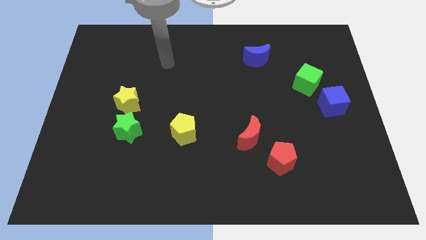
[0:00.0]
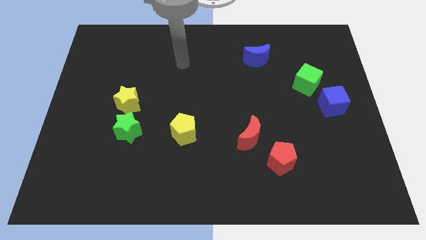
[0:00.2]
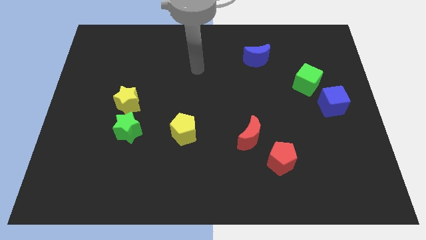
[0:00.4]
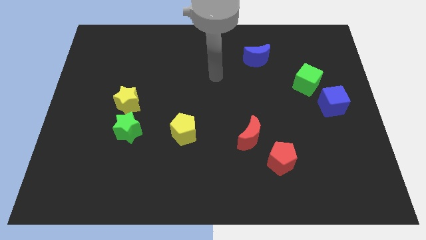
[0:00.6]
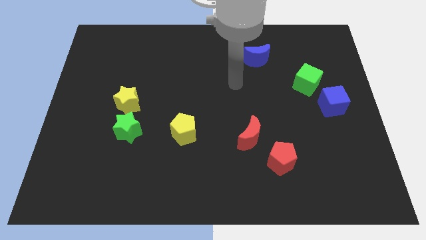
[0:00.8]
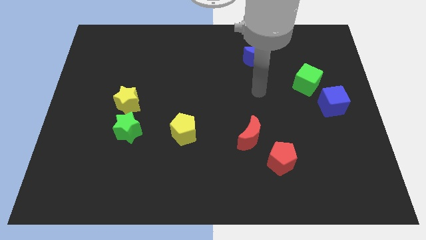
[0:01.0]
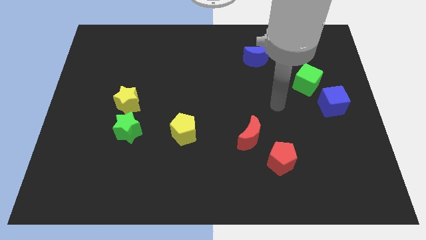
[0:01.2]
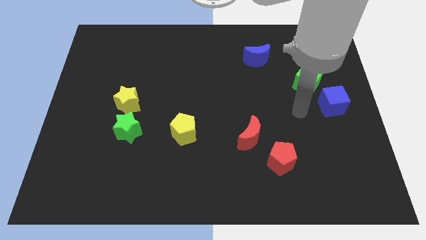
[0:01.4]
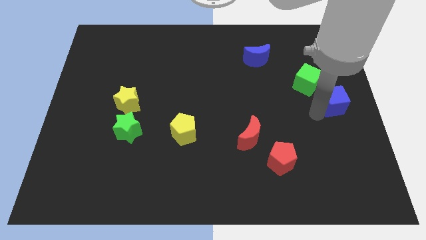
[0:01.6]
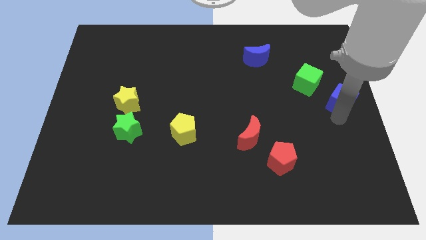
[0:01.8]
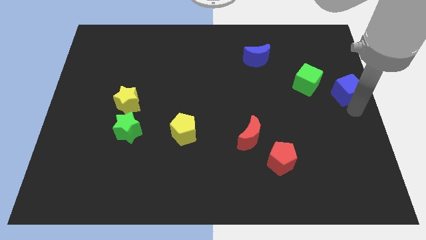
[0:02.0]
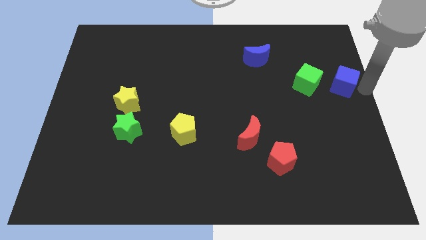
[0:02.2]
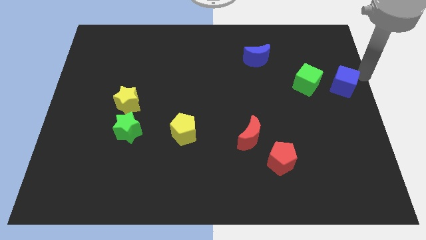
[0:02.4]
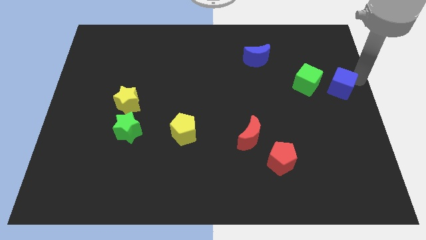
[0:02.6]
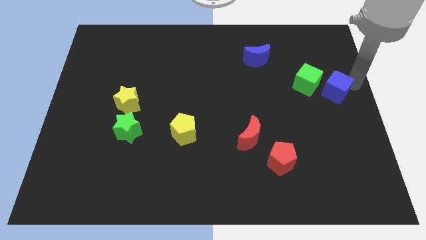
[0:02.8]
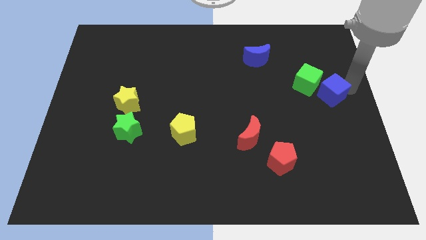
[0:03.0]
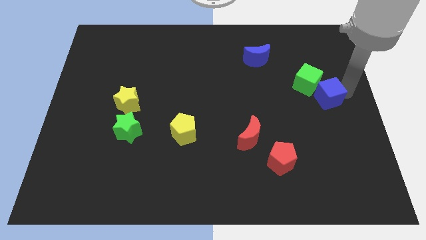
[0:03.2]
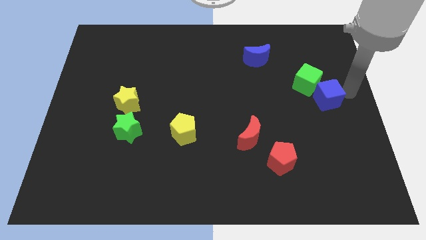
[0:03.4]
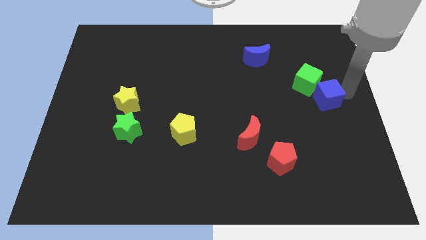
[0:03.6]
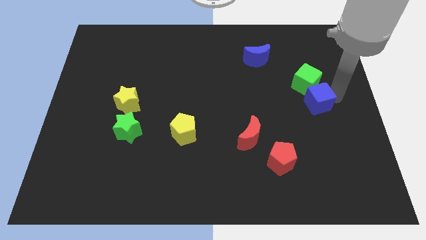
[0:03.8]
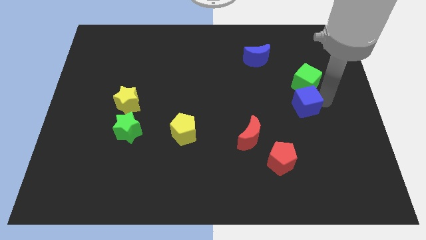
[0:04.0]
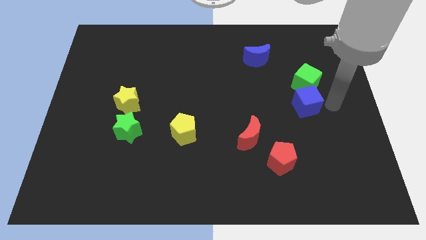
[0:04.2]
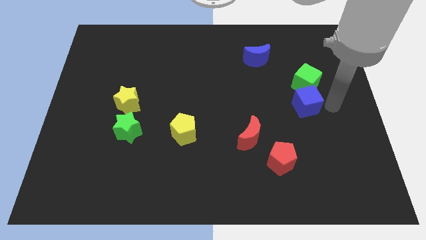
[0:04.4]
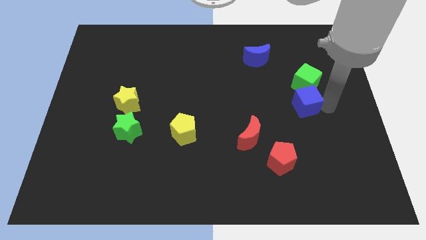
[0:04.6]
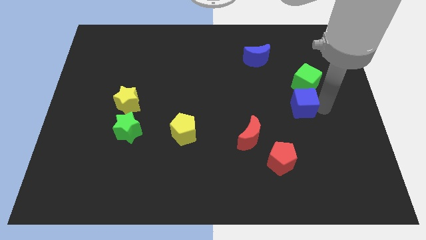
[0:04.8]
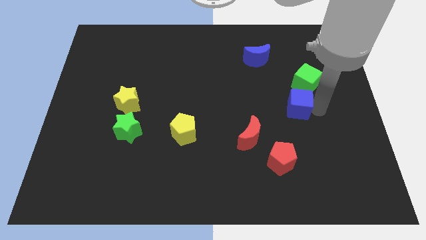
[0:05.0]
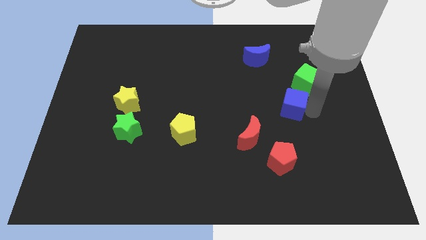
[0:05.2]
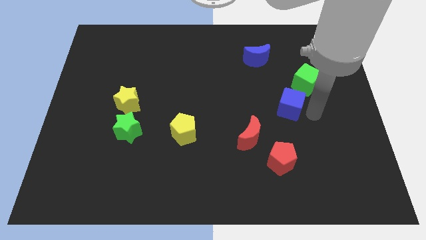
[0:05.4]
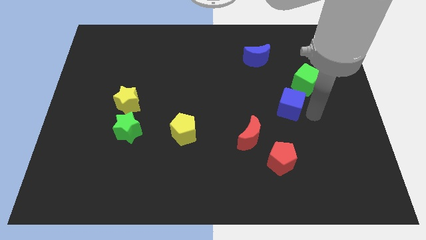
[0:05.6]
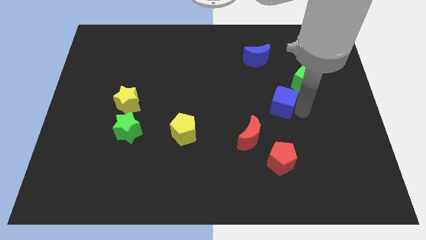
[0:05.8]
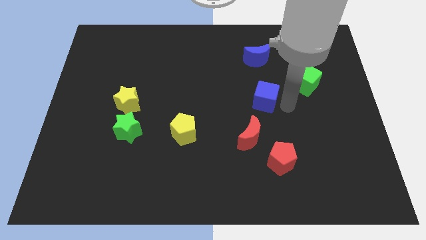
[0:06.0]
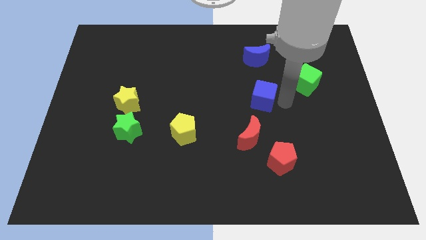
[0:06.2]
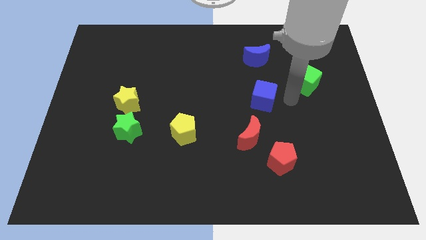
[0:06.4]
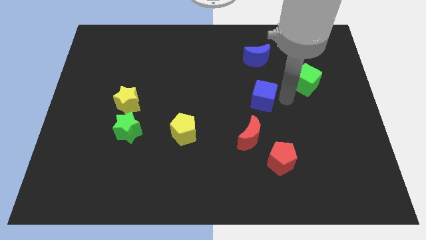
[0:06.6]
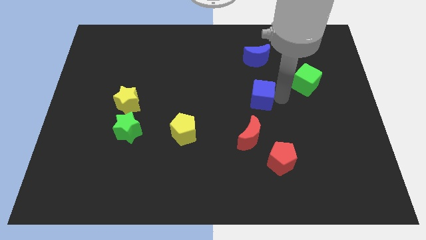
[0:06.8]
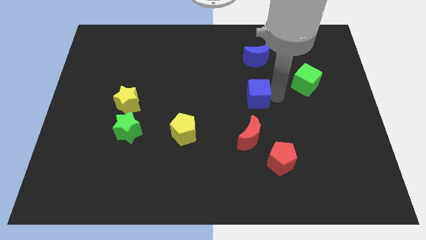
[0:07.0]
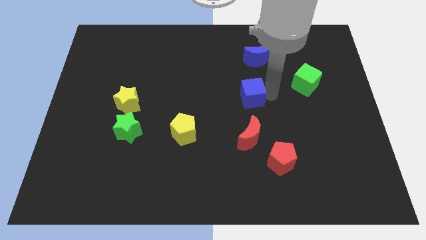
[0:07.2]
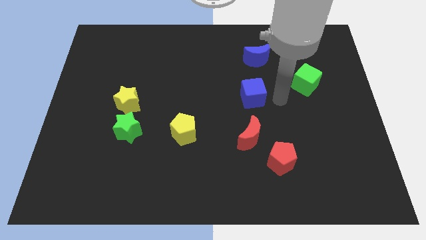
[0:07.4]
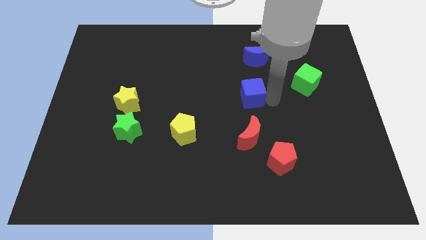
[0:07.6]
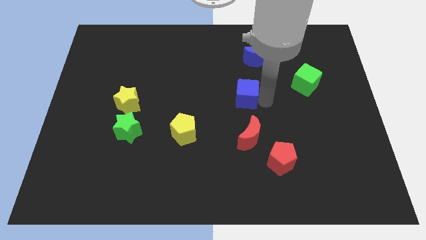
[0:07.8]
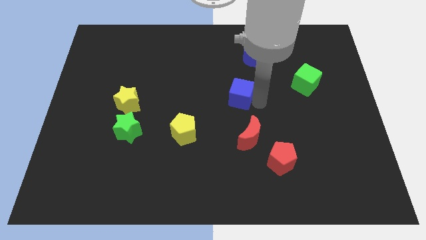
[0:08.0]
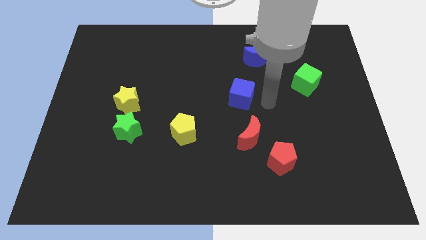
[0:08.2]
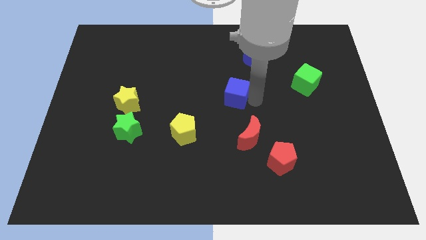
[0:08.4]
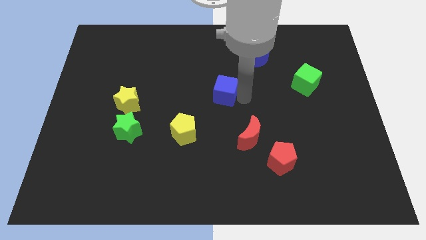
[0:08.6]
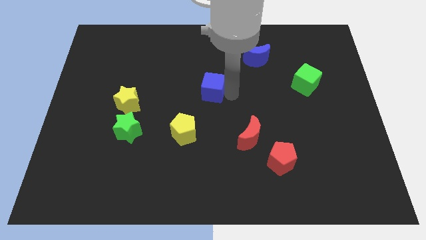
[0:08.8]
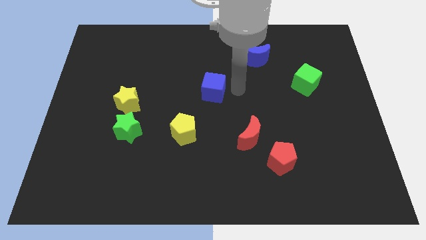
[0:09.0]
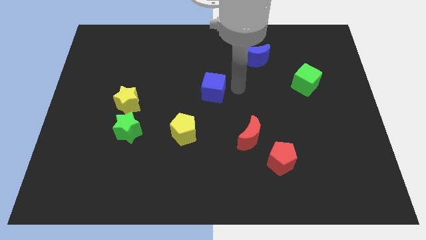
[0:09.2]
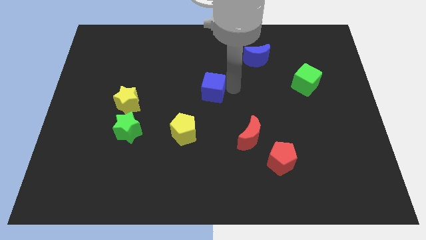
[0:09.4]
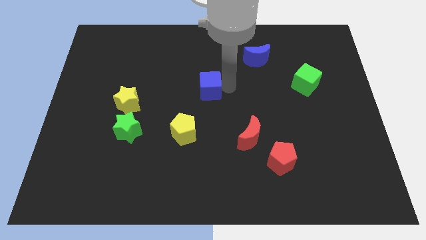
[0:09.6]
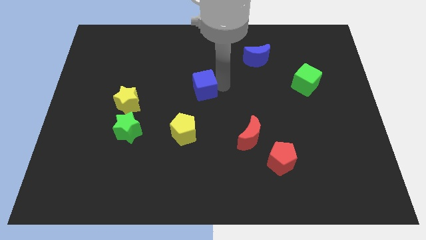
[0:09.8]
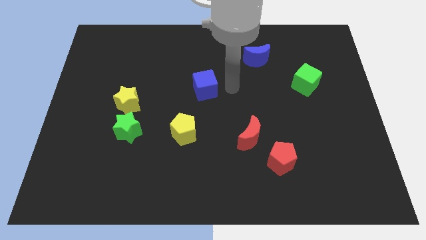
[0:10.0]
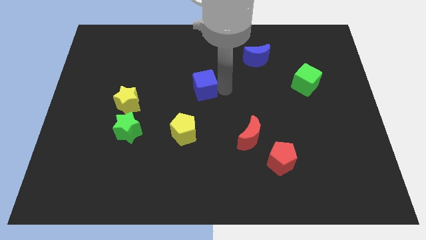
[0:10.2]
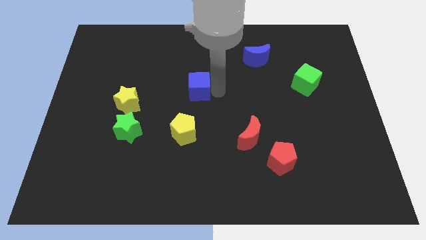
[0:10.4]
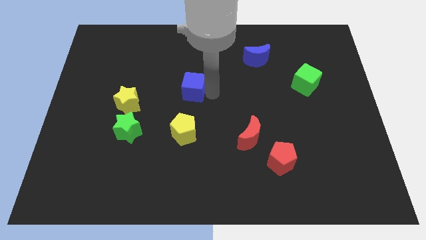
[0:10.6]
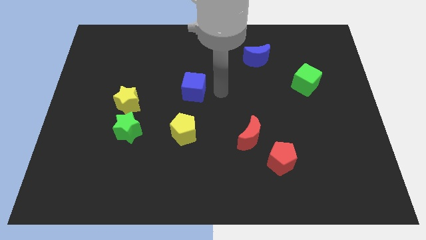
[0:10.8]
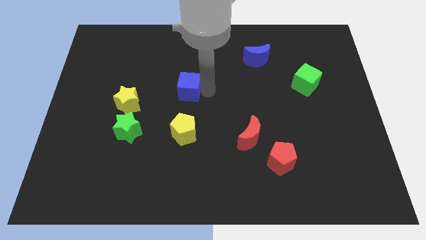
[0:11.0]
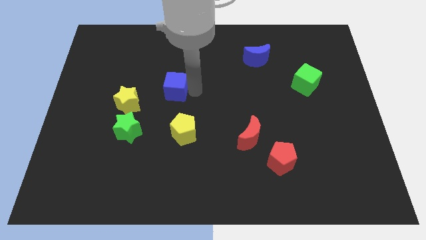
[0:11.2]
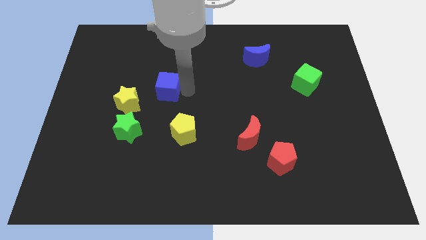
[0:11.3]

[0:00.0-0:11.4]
move the blue cube to the top right side of the yellow star

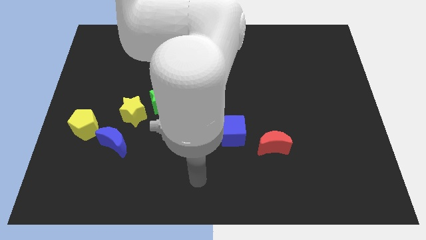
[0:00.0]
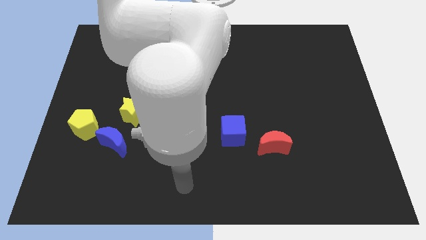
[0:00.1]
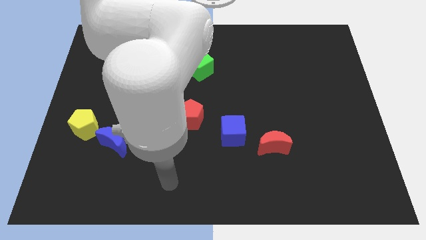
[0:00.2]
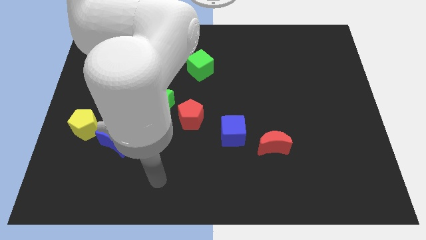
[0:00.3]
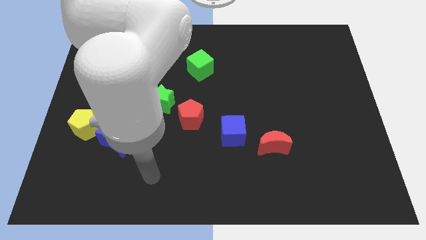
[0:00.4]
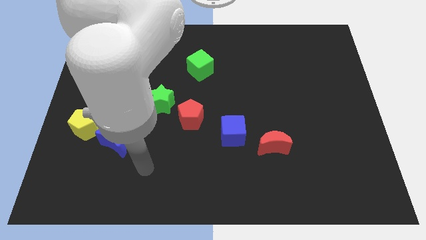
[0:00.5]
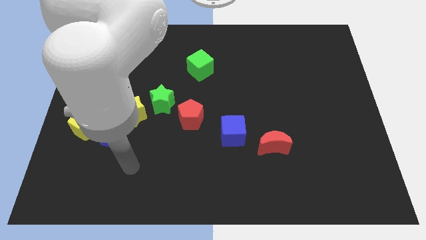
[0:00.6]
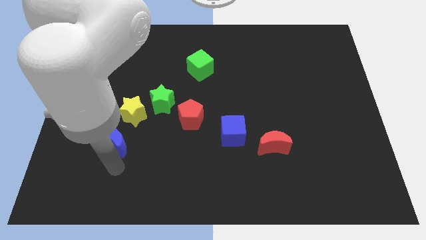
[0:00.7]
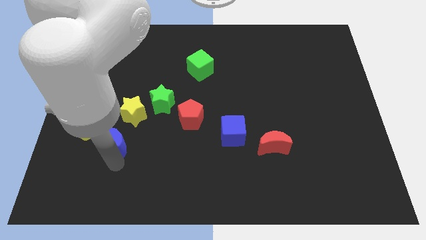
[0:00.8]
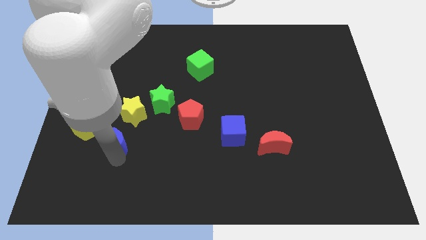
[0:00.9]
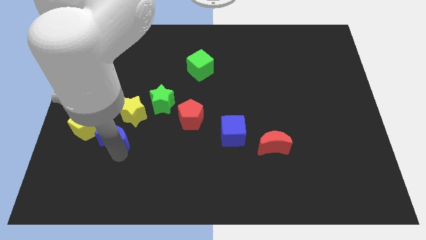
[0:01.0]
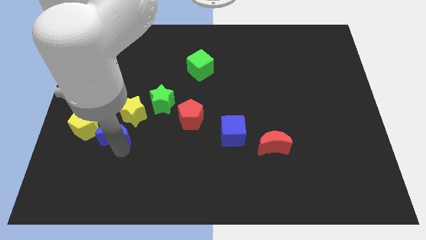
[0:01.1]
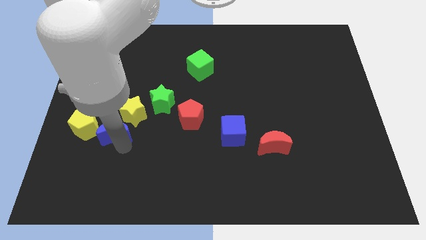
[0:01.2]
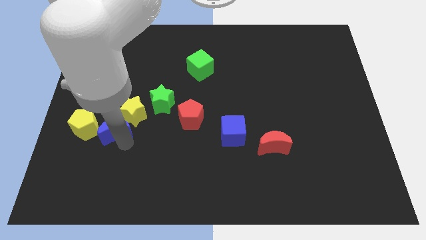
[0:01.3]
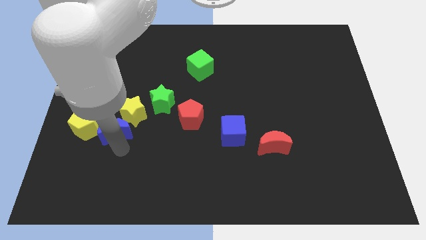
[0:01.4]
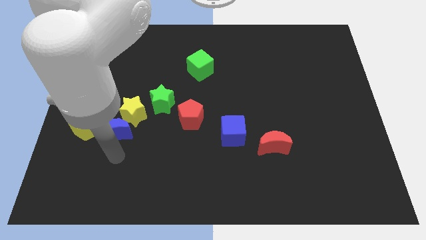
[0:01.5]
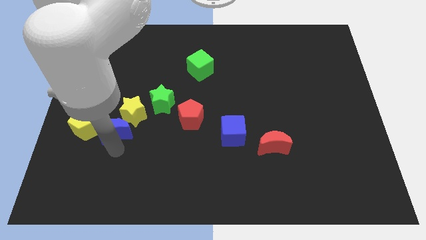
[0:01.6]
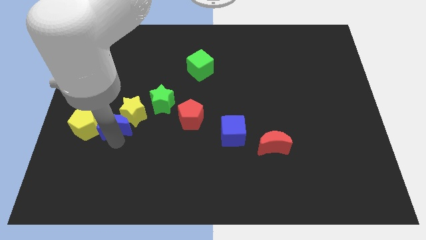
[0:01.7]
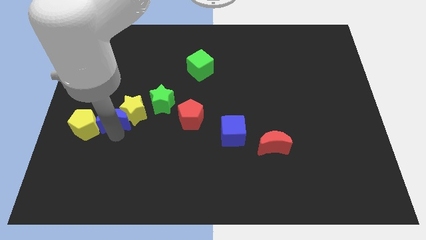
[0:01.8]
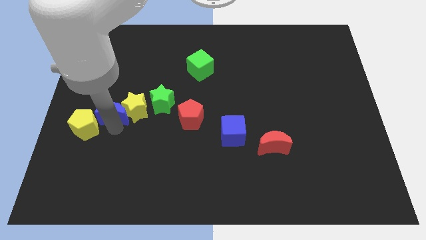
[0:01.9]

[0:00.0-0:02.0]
put the blue moon to the left of the green star
